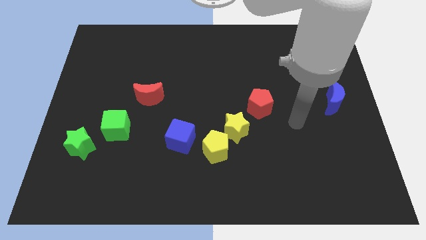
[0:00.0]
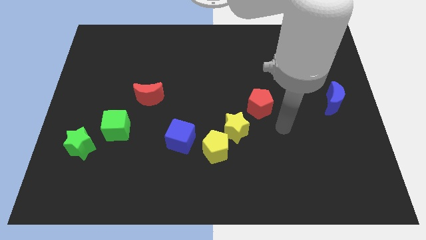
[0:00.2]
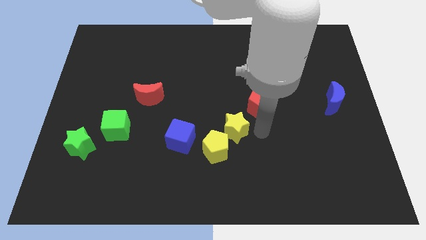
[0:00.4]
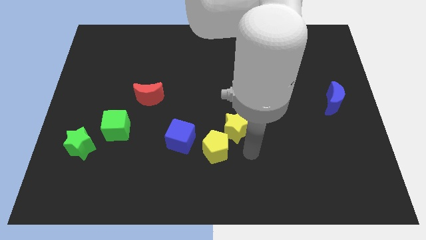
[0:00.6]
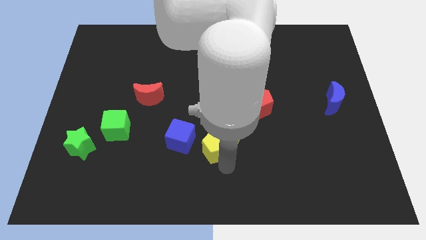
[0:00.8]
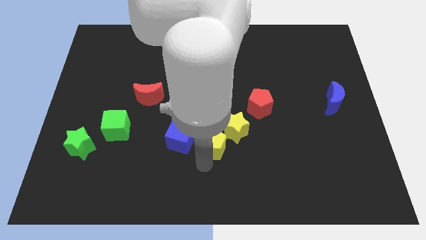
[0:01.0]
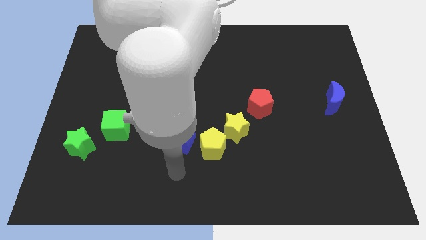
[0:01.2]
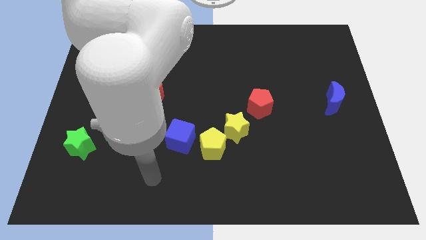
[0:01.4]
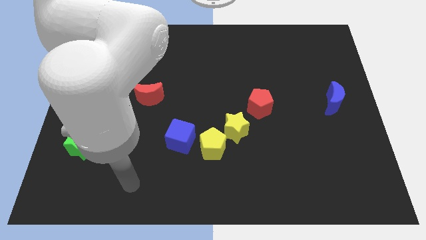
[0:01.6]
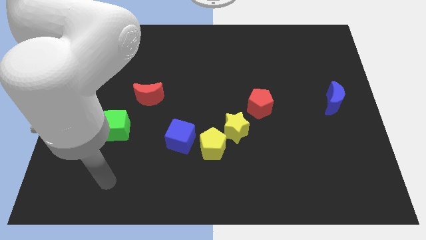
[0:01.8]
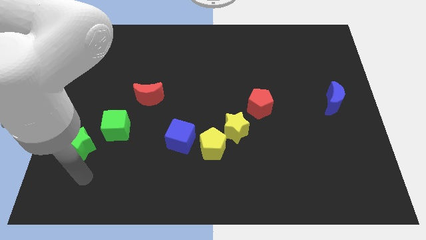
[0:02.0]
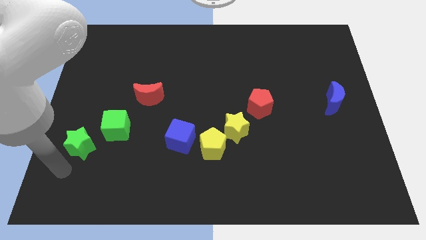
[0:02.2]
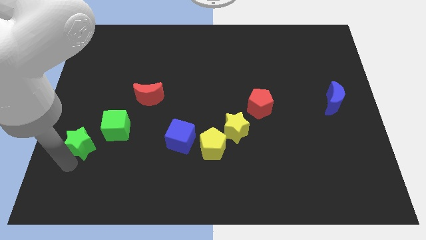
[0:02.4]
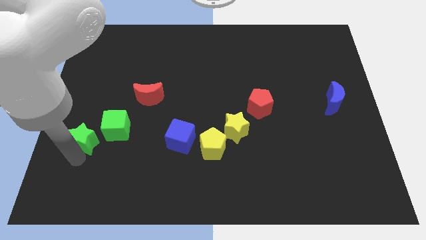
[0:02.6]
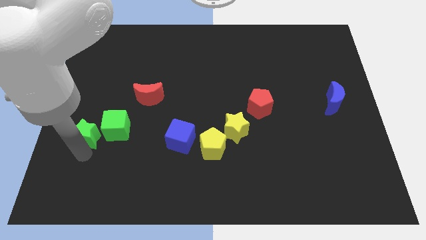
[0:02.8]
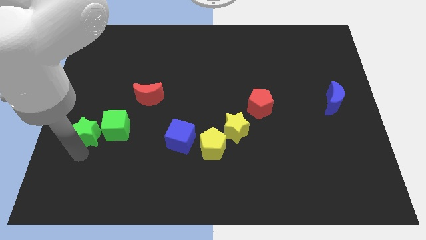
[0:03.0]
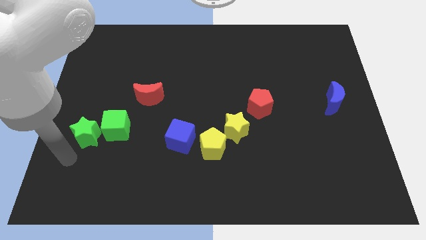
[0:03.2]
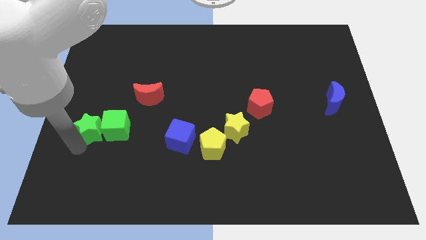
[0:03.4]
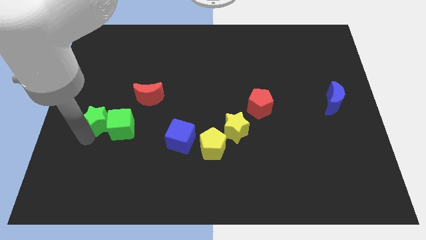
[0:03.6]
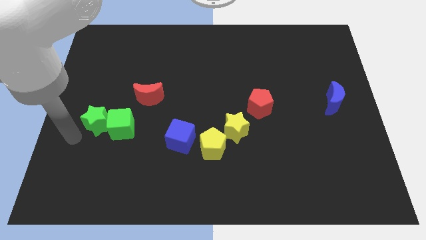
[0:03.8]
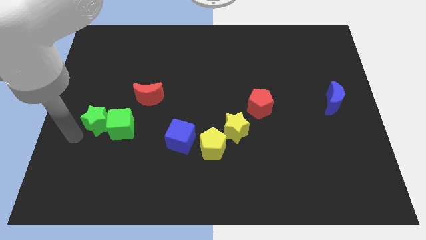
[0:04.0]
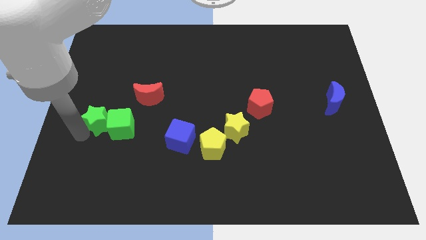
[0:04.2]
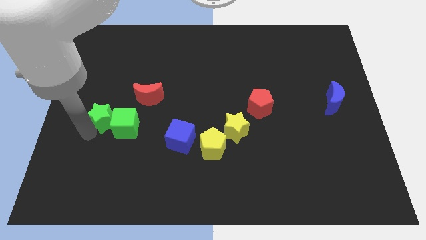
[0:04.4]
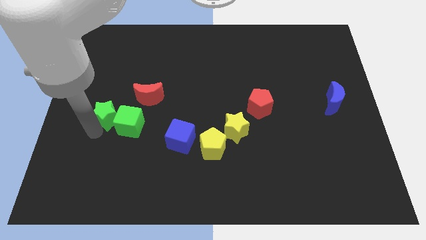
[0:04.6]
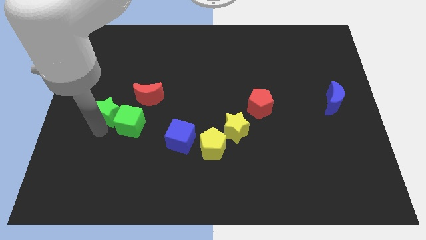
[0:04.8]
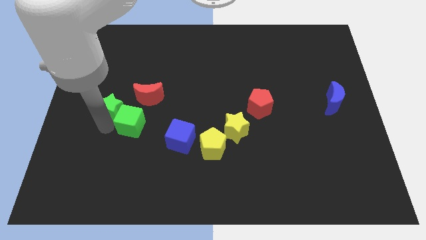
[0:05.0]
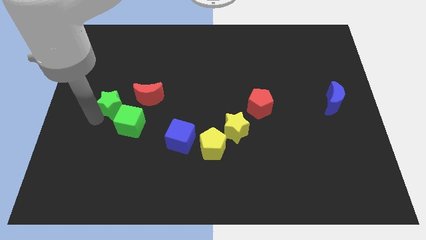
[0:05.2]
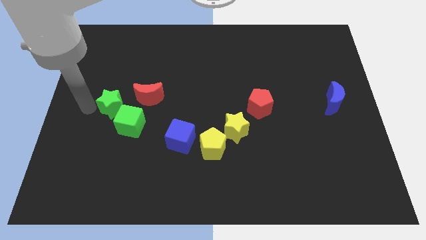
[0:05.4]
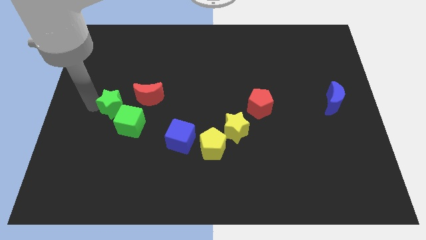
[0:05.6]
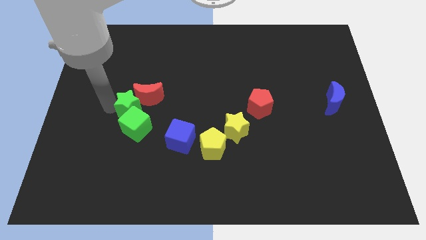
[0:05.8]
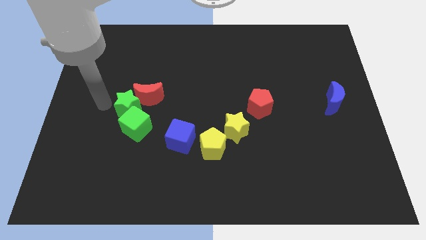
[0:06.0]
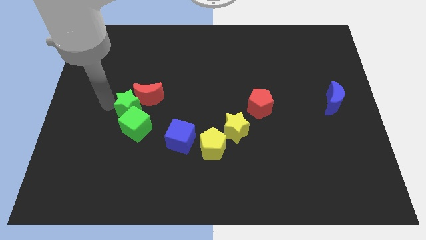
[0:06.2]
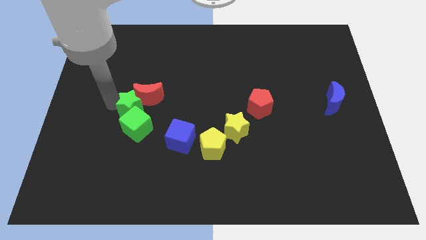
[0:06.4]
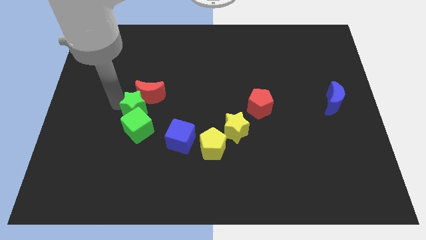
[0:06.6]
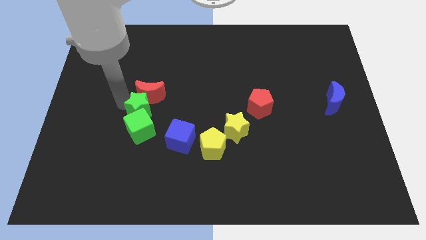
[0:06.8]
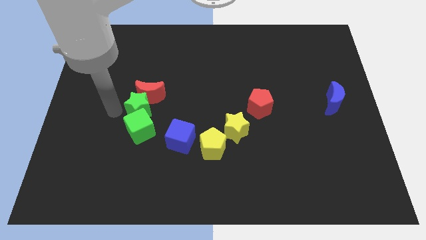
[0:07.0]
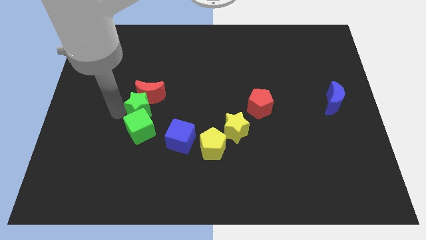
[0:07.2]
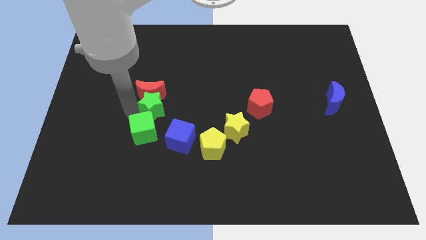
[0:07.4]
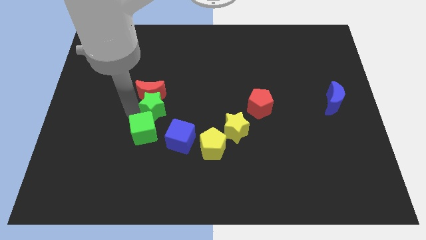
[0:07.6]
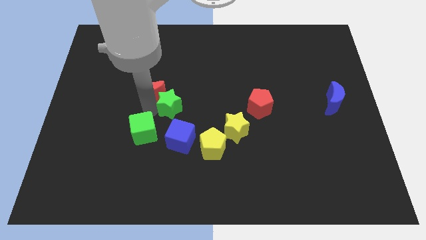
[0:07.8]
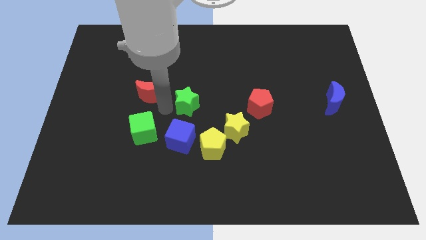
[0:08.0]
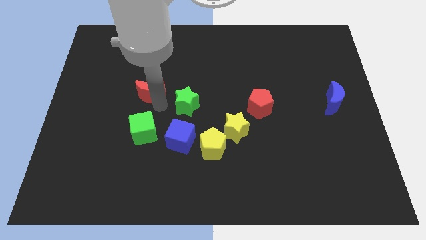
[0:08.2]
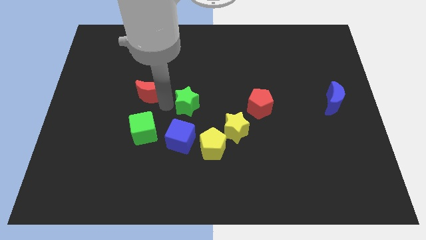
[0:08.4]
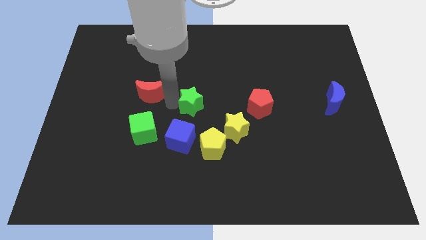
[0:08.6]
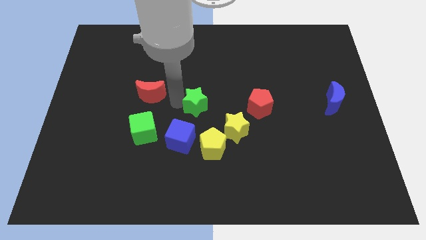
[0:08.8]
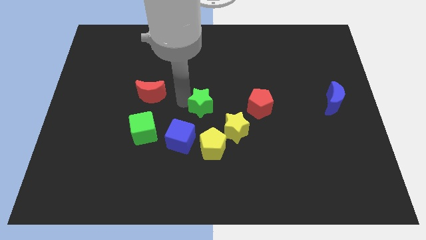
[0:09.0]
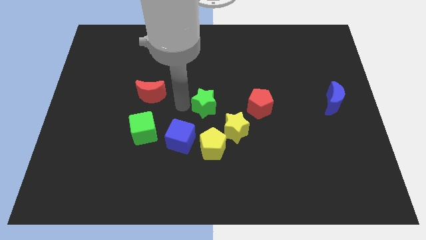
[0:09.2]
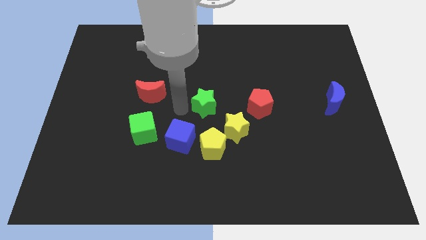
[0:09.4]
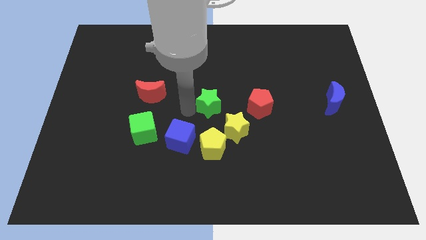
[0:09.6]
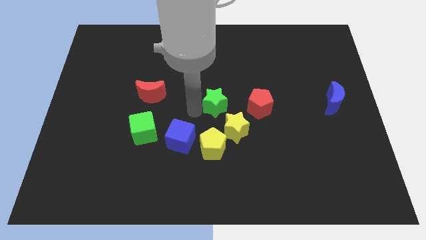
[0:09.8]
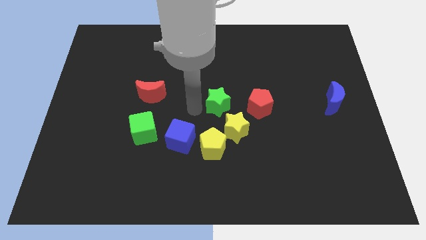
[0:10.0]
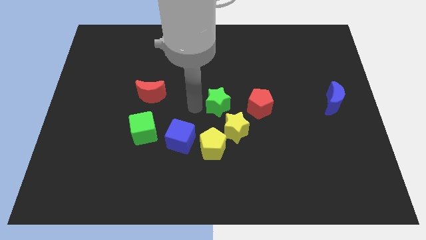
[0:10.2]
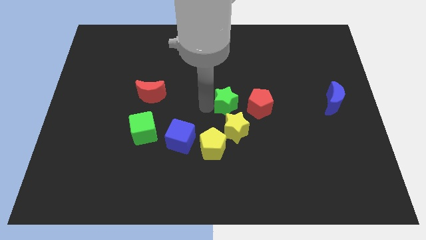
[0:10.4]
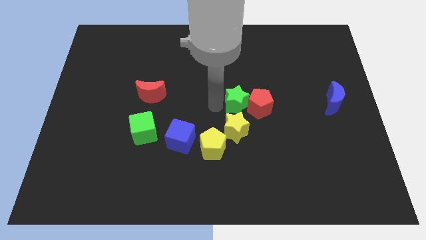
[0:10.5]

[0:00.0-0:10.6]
slide the green star to the red pentagon

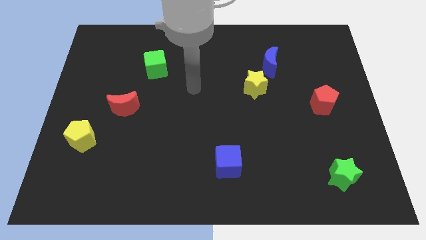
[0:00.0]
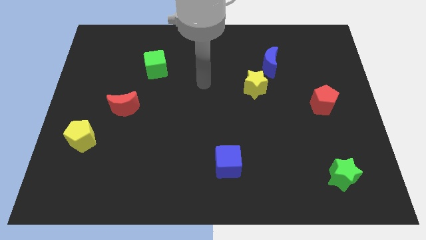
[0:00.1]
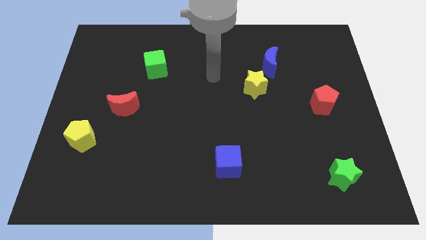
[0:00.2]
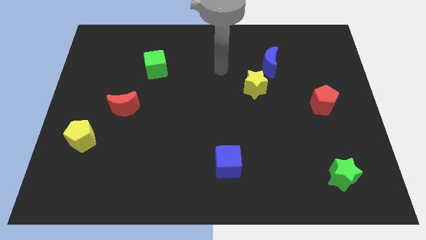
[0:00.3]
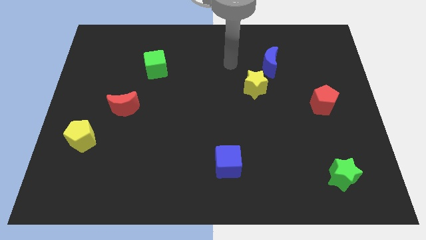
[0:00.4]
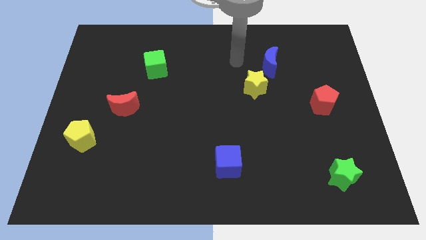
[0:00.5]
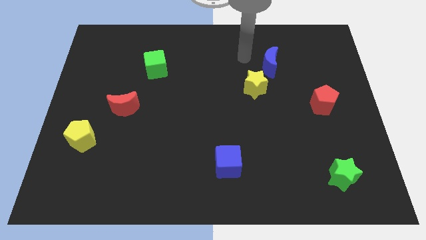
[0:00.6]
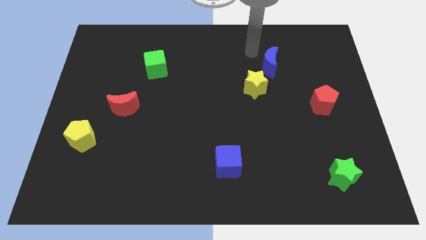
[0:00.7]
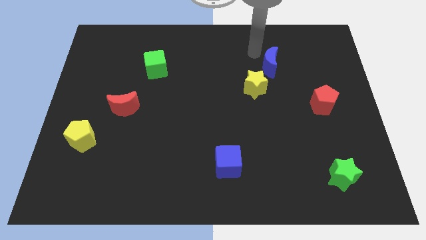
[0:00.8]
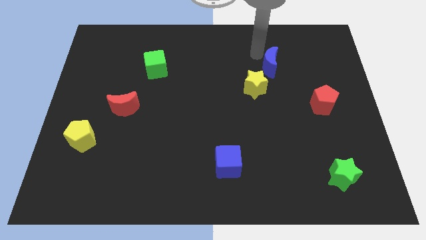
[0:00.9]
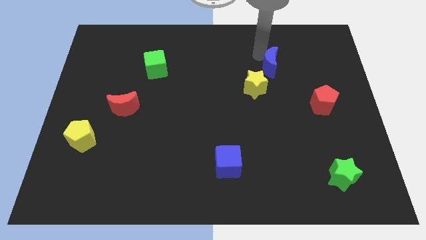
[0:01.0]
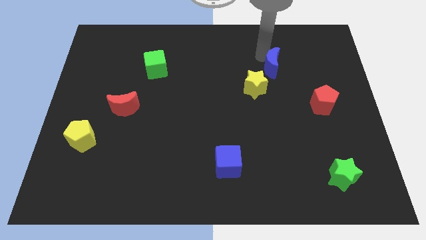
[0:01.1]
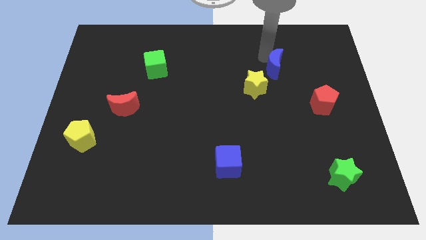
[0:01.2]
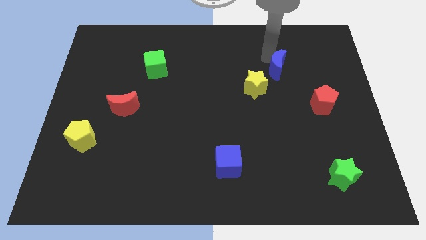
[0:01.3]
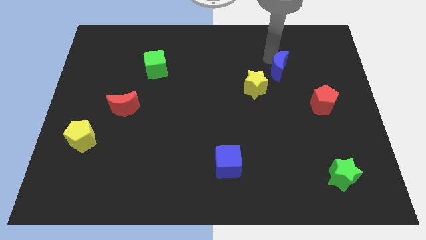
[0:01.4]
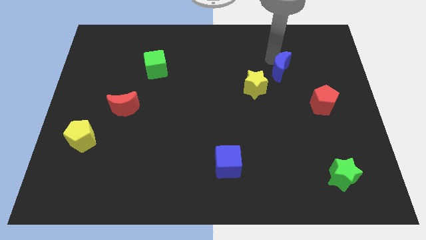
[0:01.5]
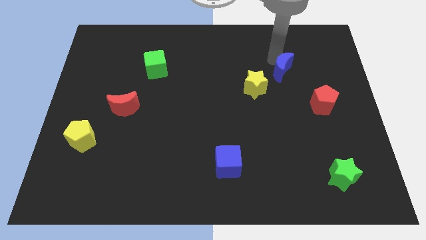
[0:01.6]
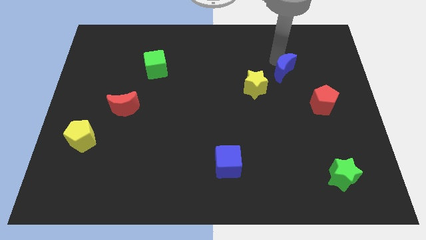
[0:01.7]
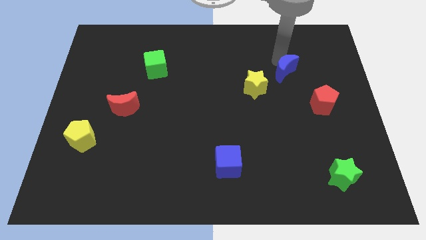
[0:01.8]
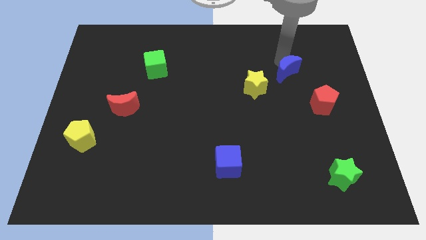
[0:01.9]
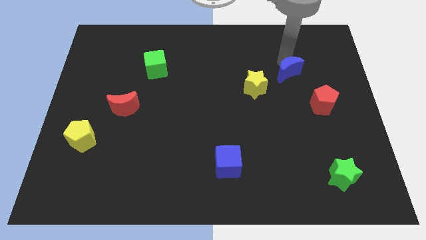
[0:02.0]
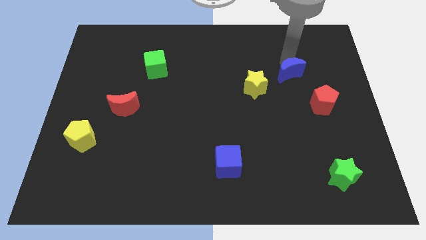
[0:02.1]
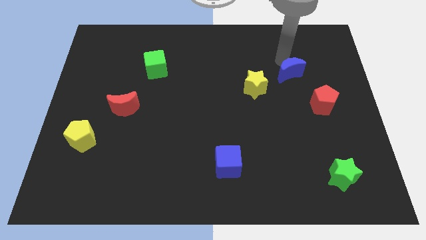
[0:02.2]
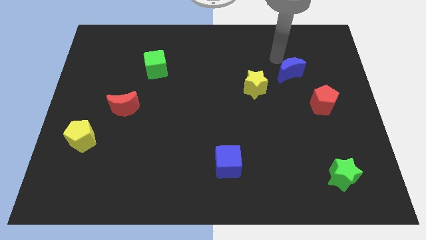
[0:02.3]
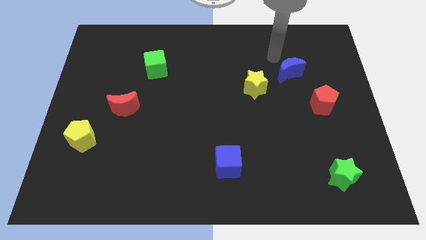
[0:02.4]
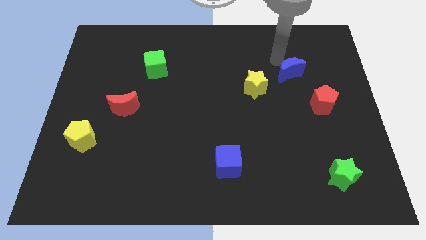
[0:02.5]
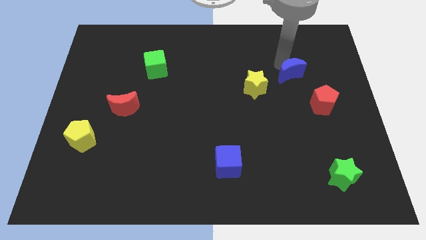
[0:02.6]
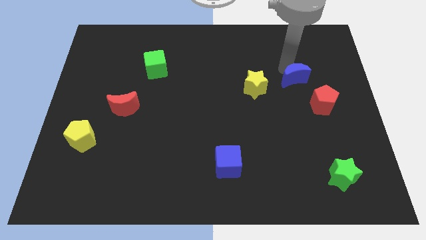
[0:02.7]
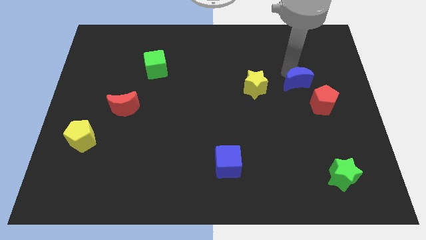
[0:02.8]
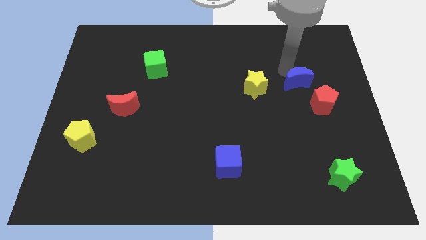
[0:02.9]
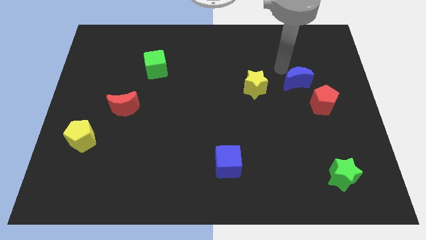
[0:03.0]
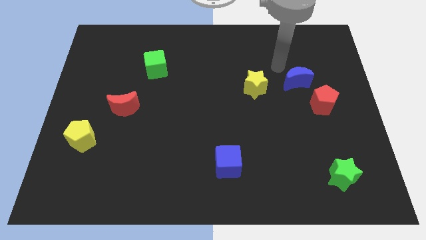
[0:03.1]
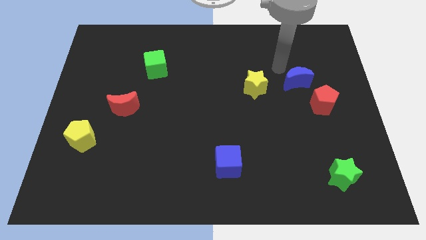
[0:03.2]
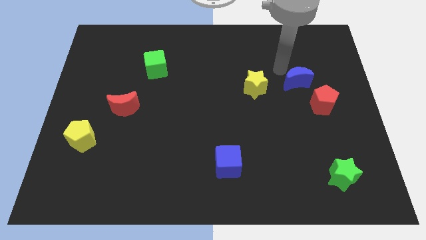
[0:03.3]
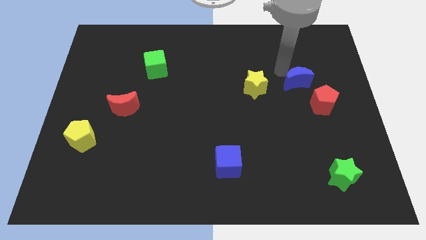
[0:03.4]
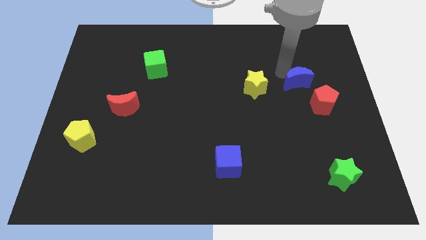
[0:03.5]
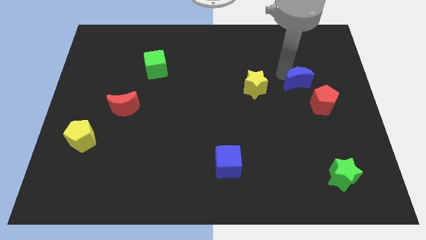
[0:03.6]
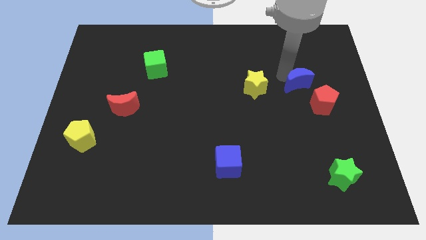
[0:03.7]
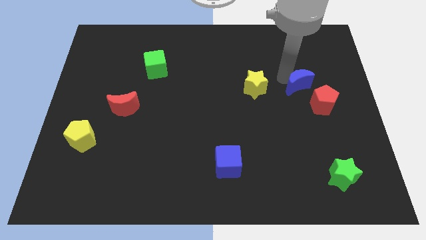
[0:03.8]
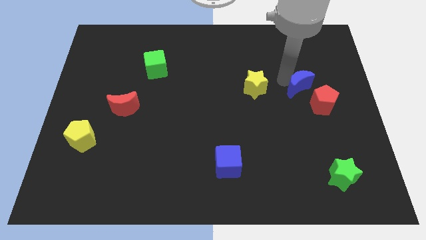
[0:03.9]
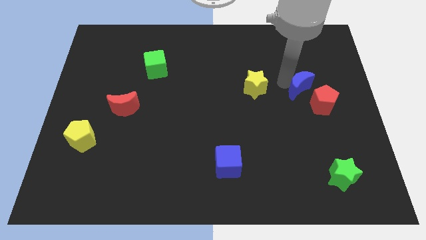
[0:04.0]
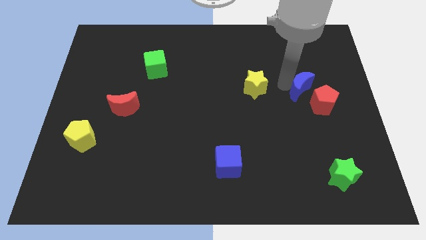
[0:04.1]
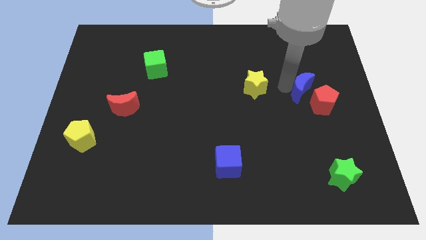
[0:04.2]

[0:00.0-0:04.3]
move the blue moon towards the red pentagon
